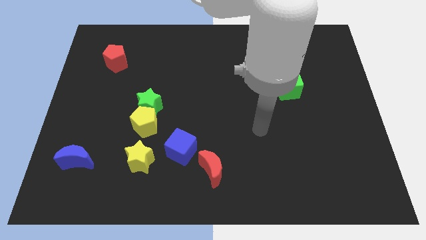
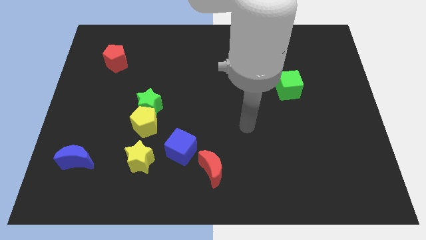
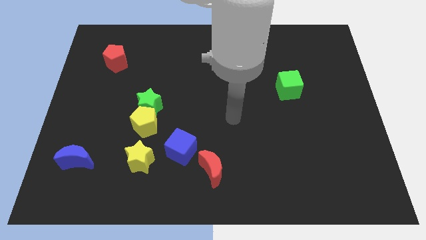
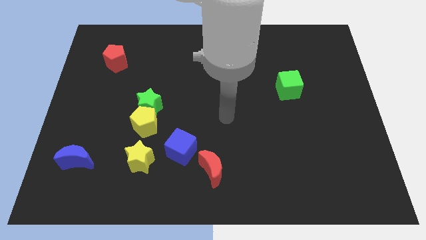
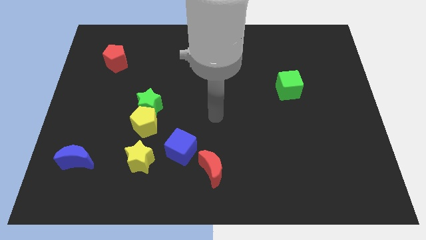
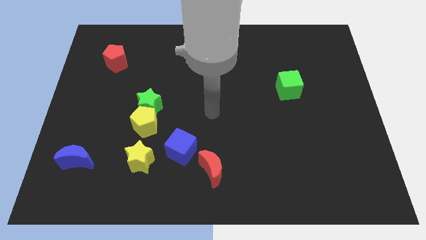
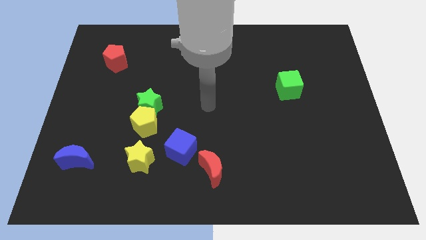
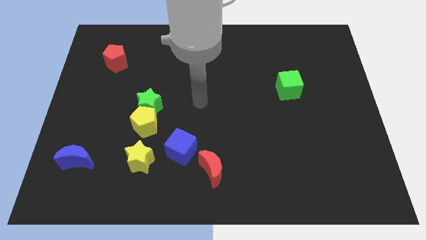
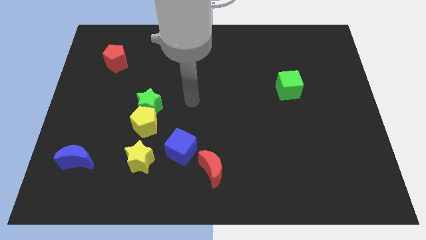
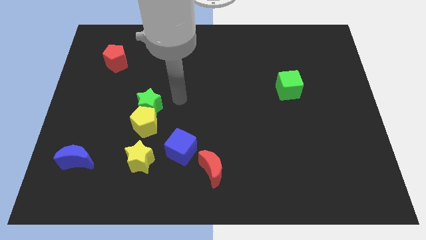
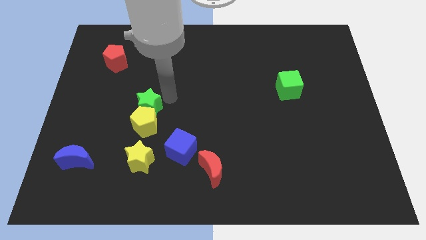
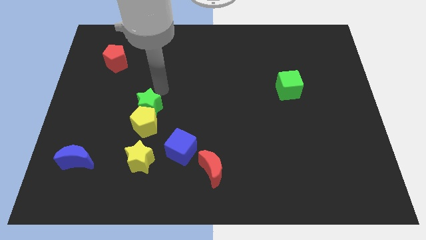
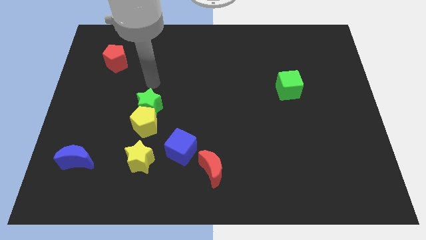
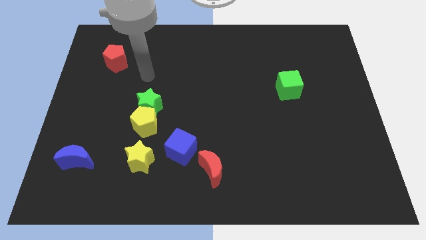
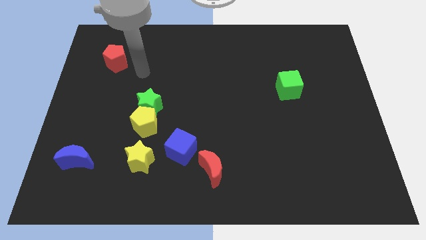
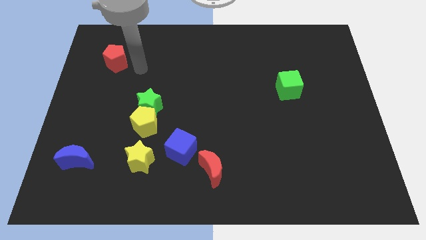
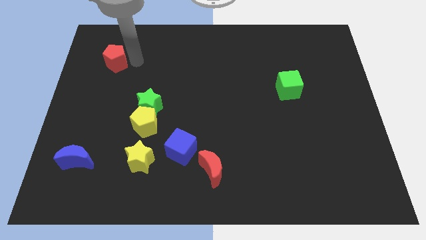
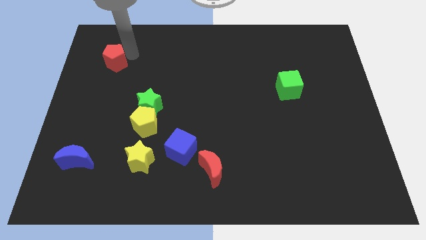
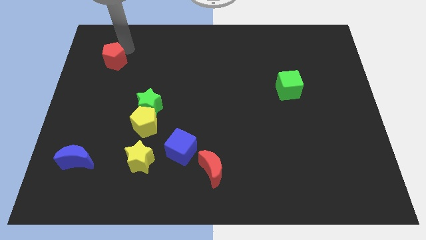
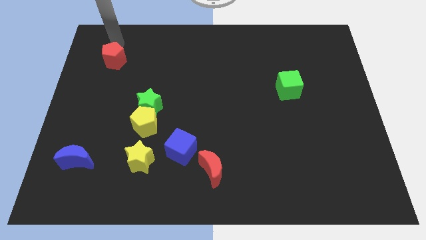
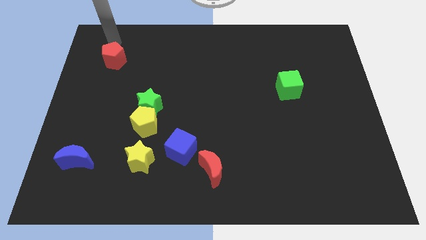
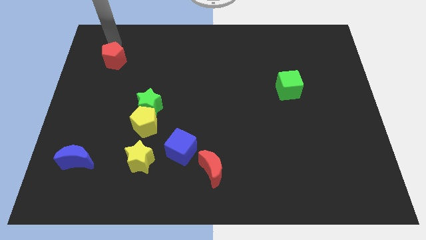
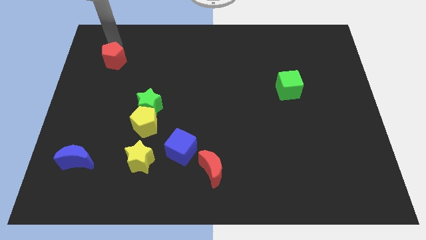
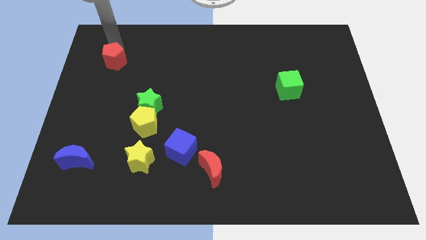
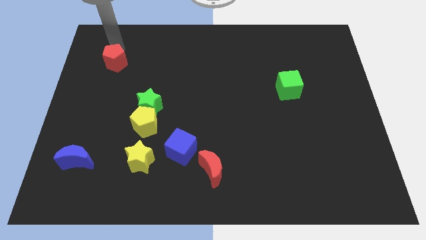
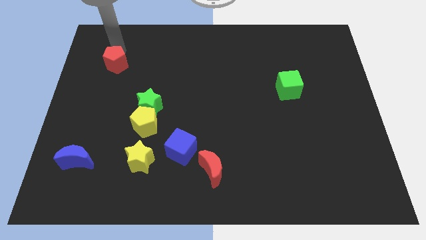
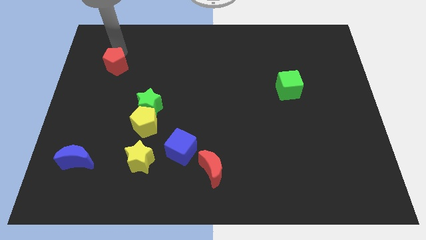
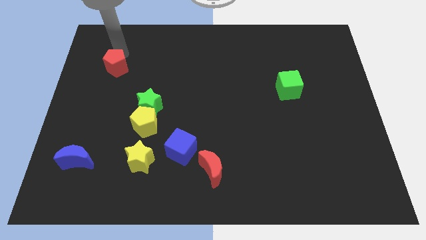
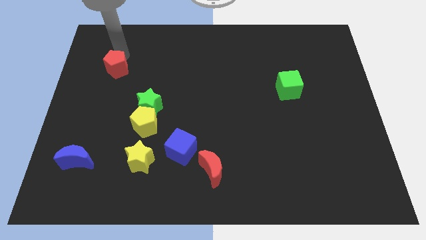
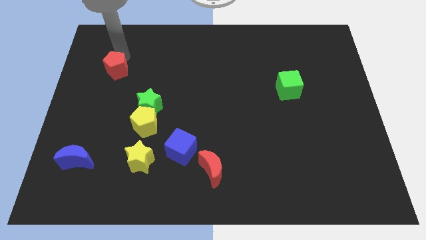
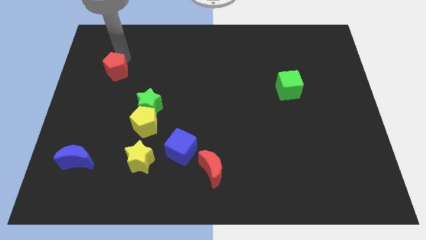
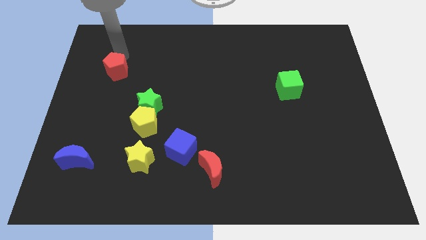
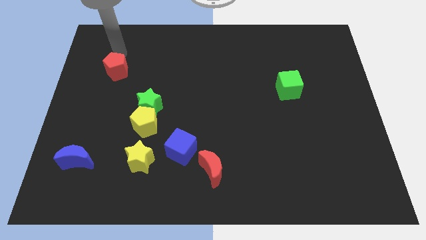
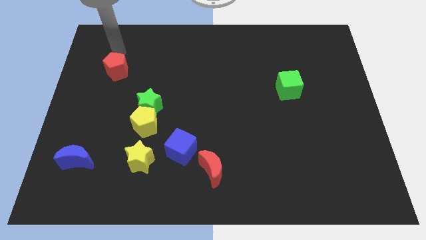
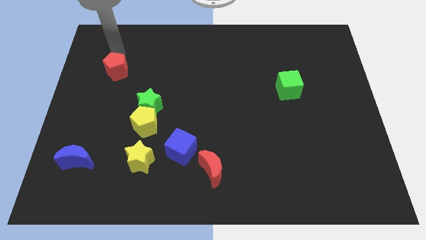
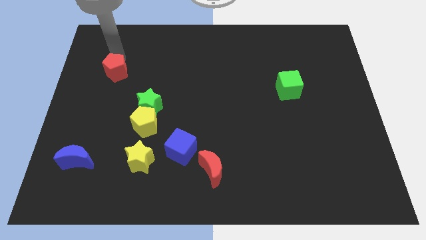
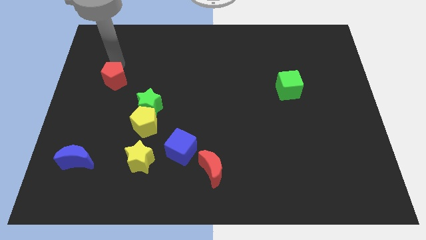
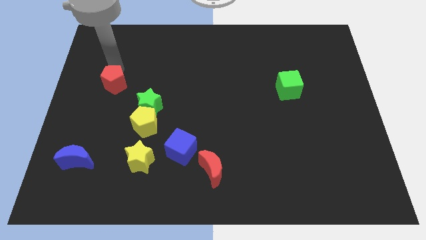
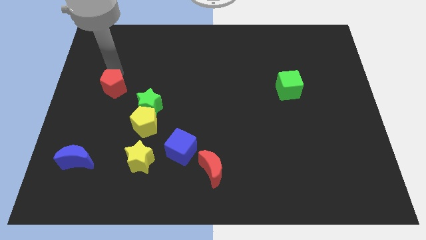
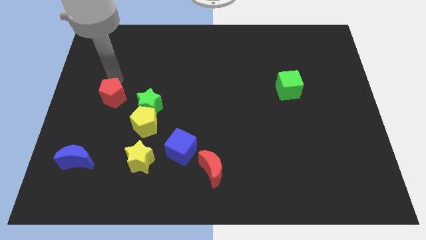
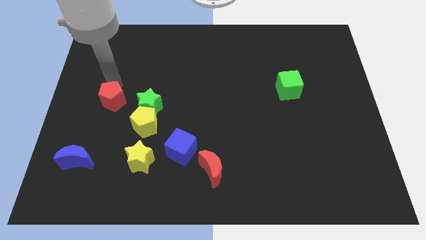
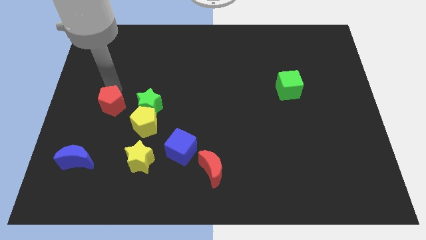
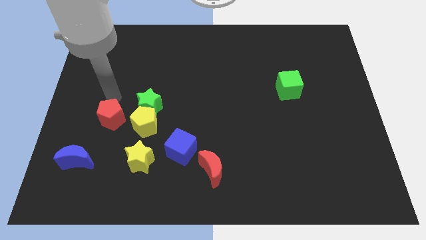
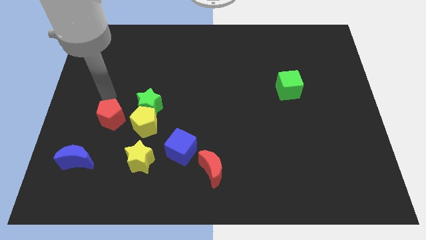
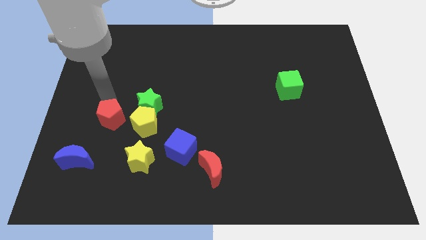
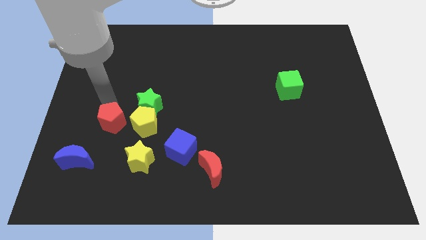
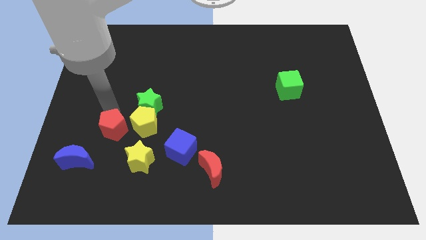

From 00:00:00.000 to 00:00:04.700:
move the red pentagon diagonally up and to the left of the yellow star

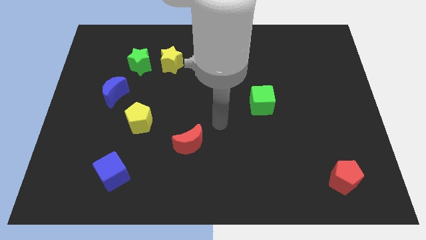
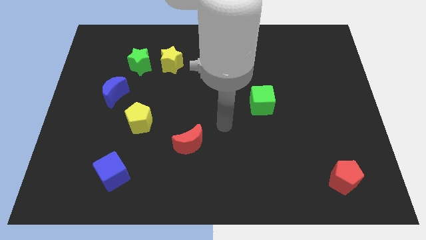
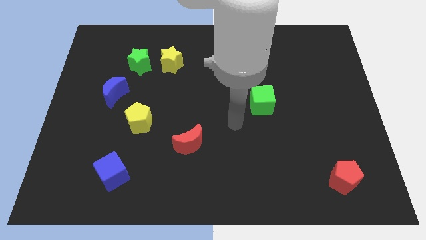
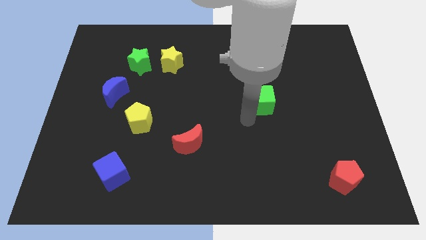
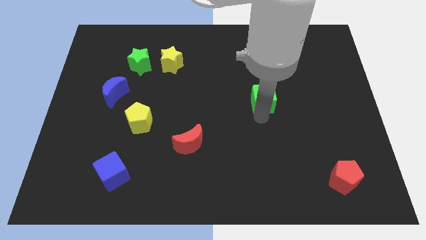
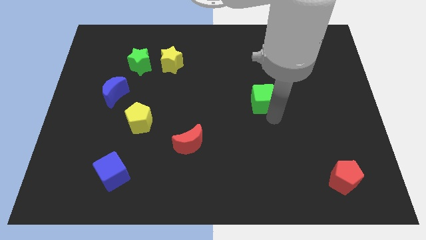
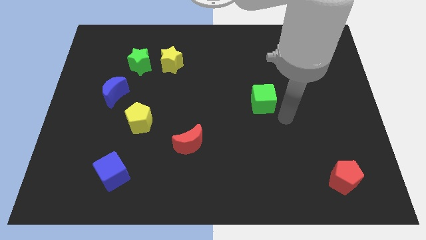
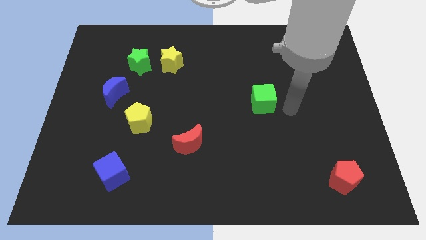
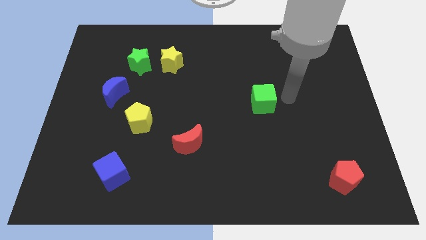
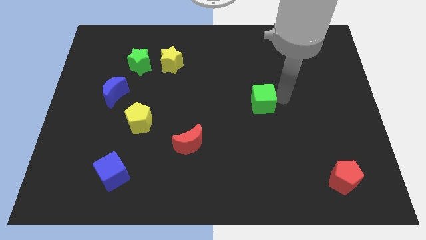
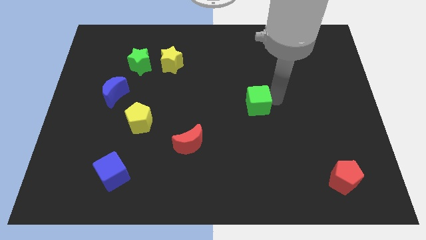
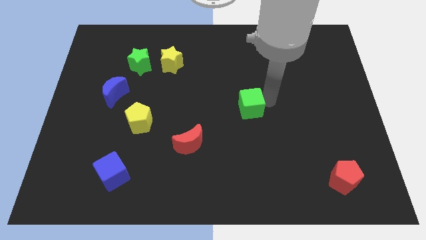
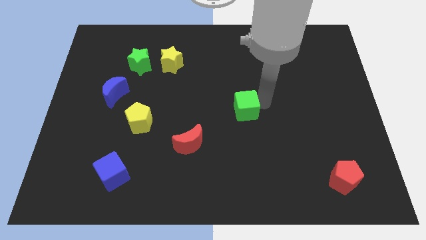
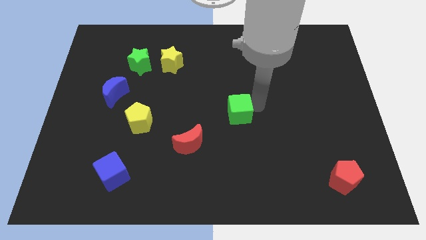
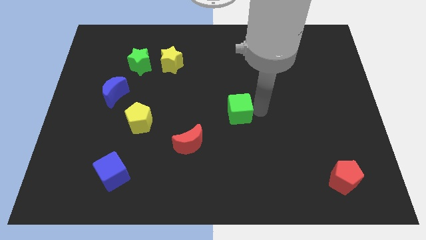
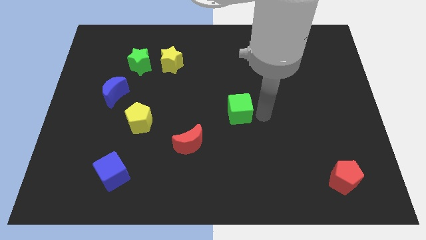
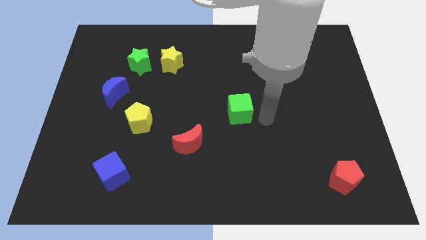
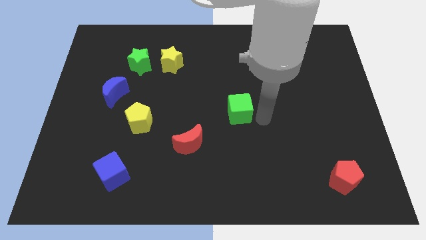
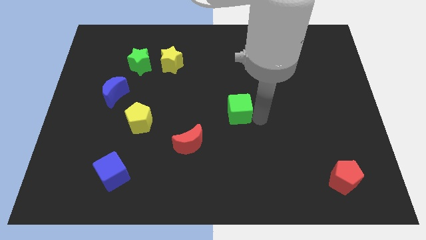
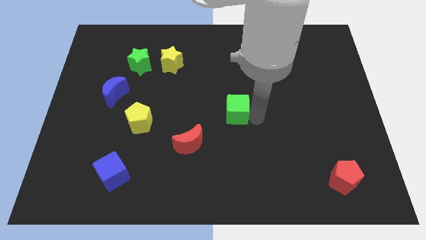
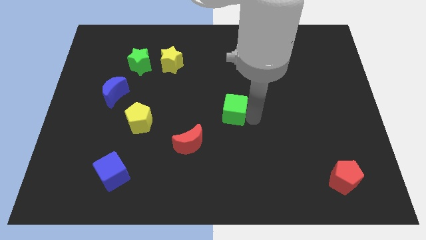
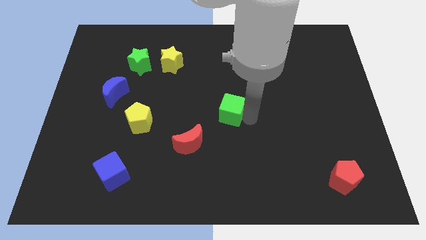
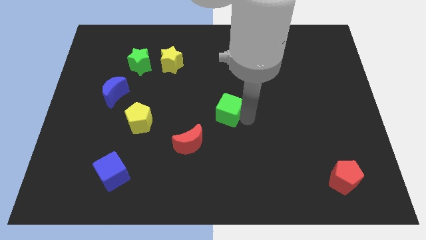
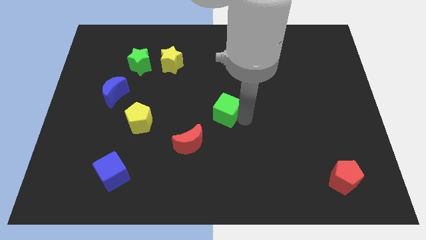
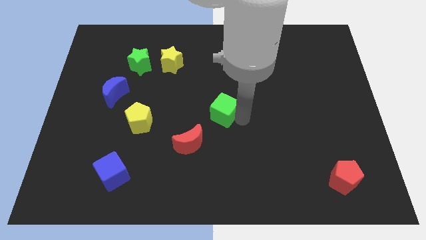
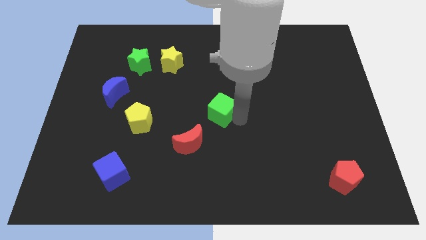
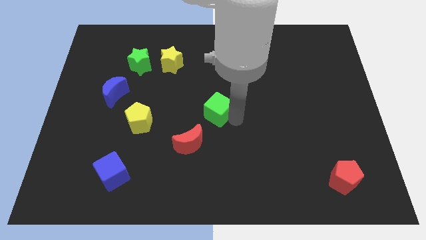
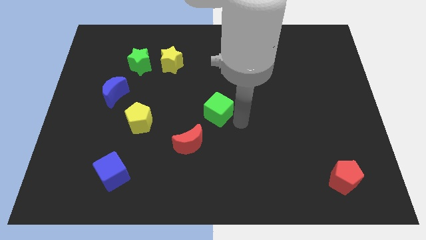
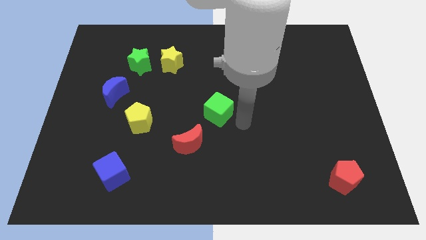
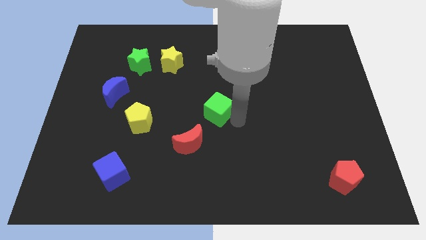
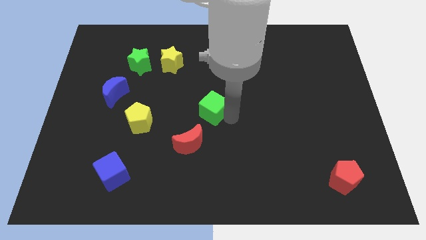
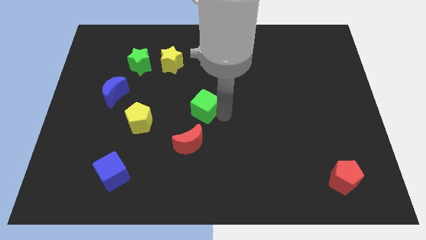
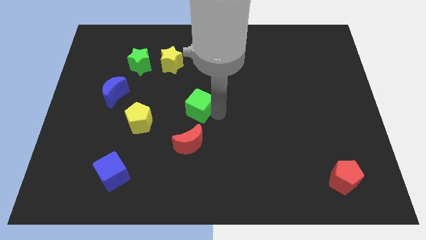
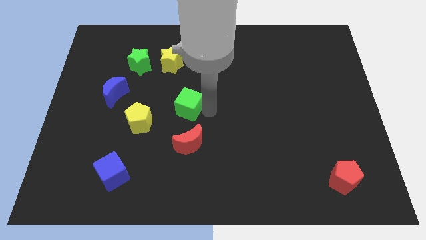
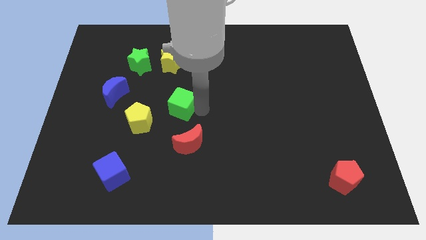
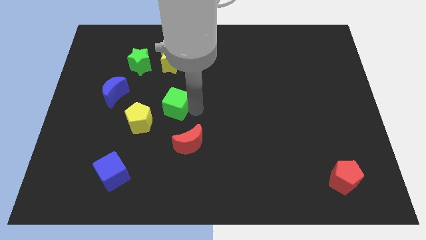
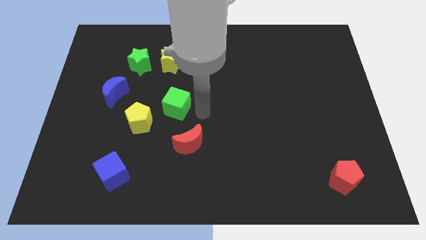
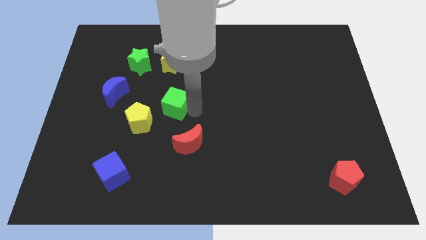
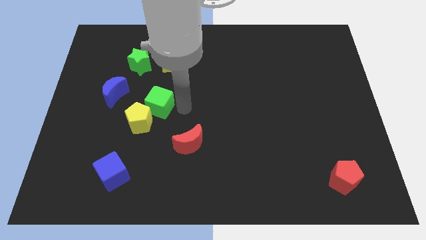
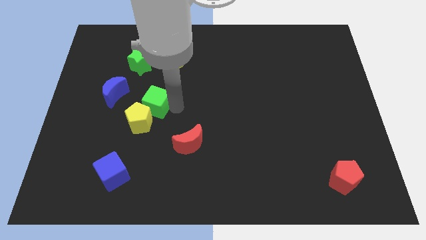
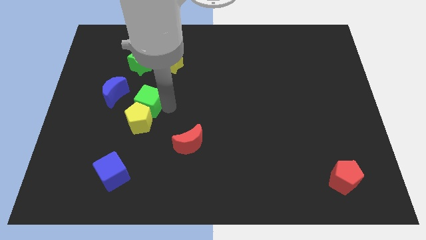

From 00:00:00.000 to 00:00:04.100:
move the green cube to the bottom side of the green star
